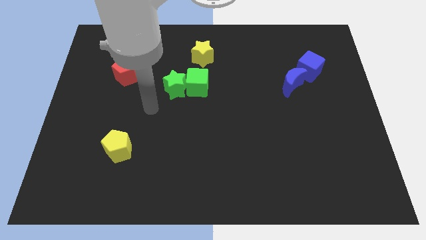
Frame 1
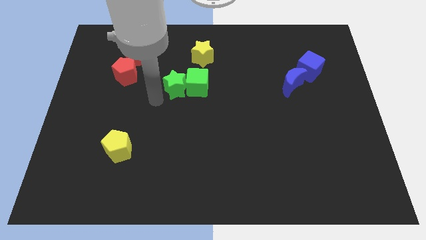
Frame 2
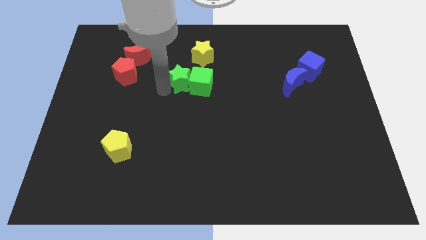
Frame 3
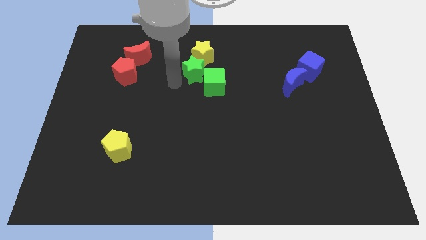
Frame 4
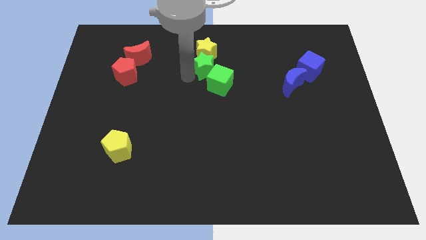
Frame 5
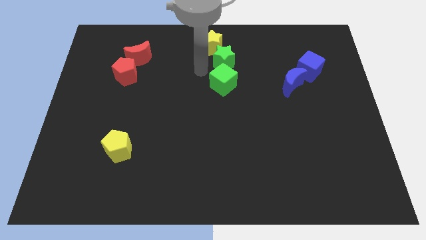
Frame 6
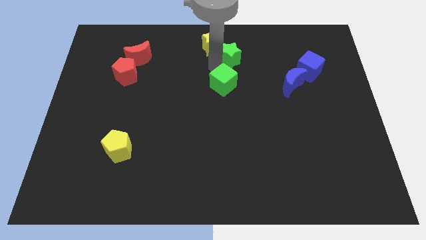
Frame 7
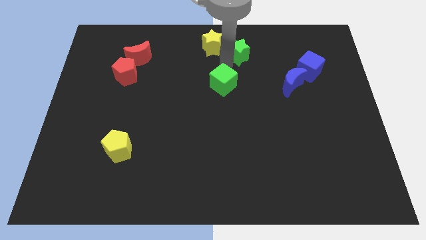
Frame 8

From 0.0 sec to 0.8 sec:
pull the green cube apart from the green star

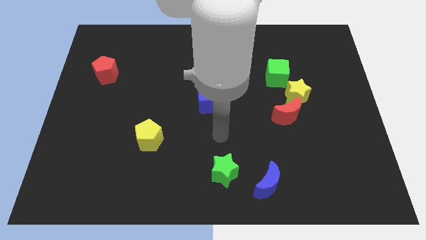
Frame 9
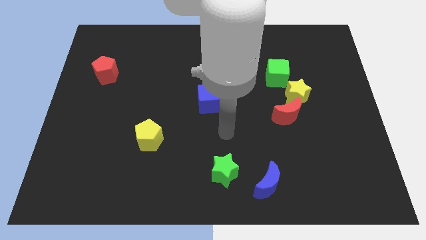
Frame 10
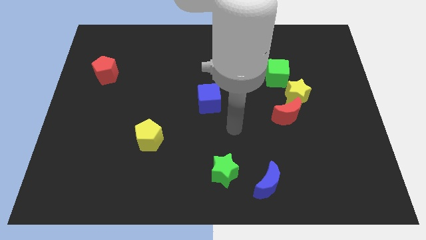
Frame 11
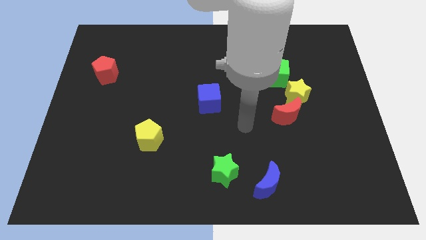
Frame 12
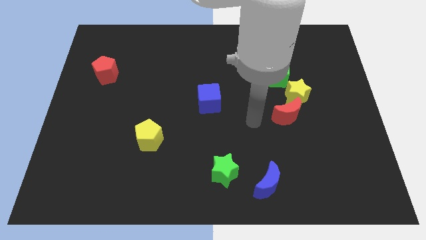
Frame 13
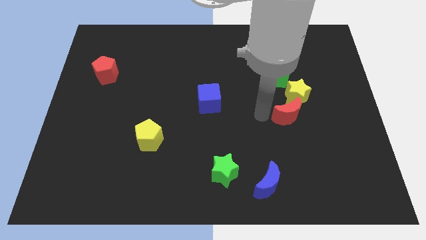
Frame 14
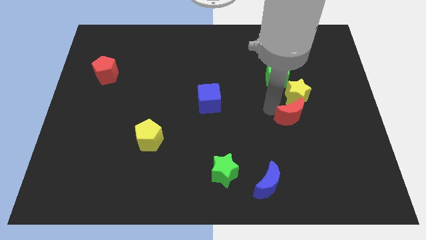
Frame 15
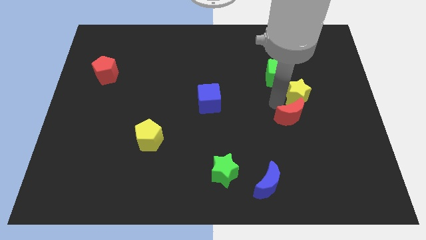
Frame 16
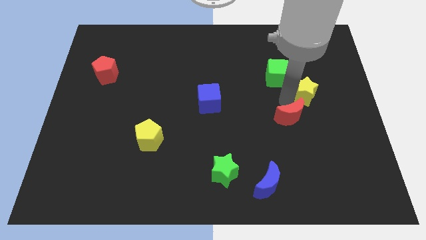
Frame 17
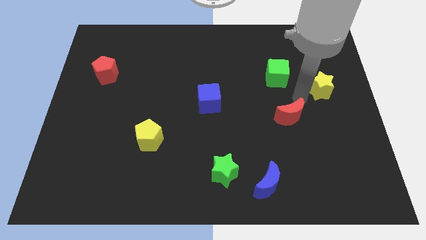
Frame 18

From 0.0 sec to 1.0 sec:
pull the red moon apart from the yellow star

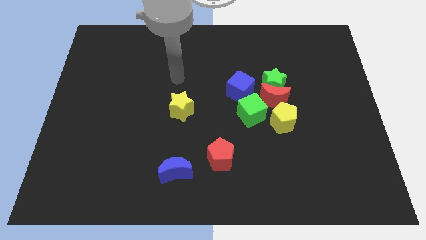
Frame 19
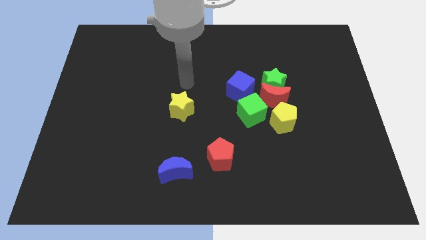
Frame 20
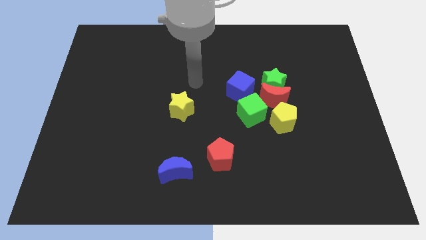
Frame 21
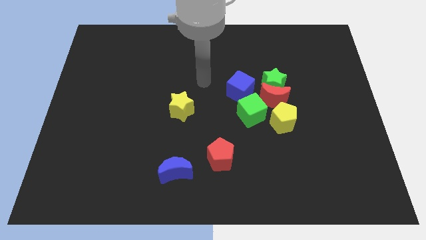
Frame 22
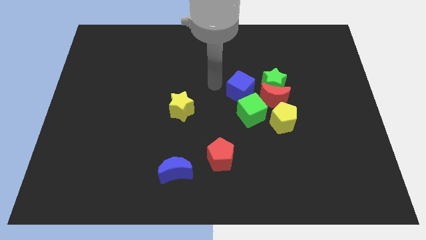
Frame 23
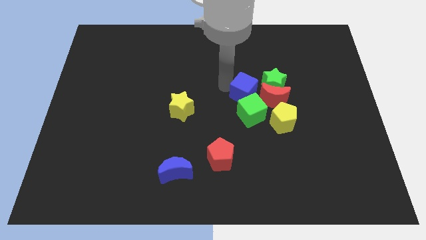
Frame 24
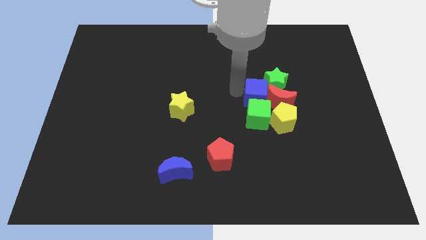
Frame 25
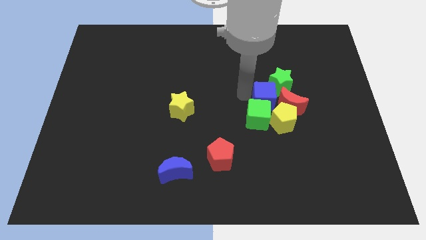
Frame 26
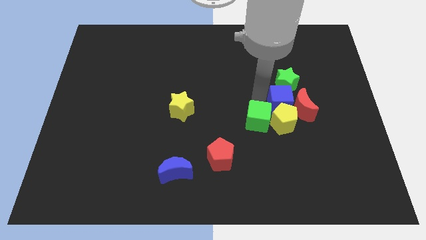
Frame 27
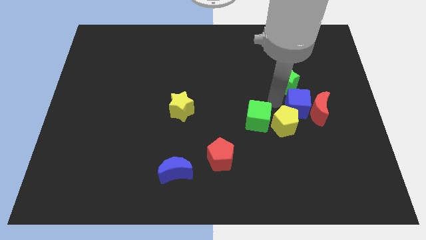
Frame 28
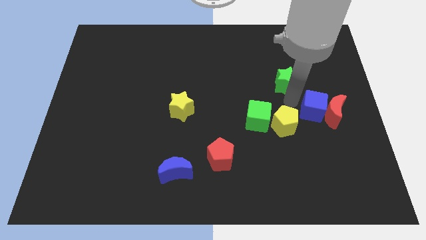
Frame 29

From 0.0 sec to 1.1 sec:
pull the green star apart from the red moon and blue cube

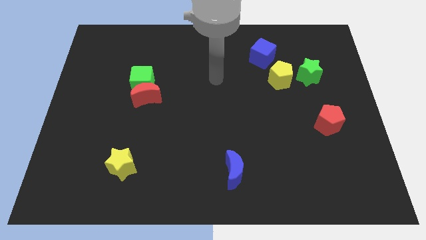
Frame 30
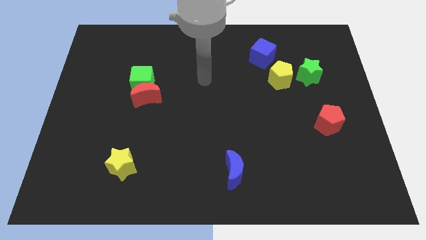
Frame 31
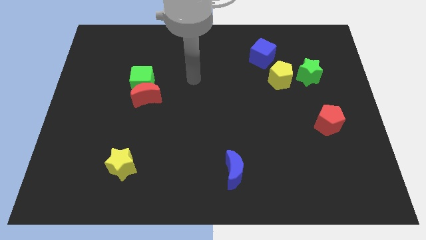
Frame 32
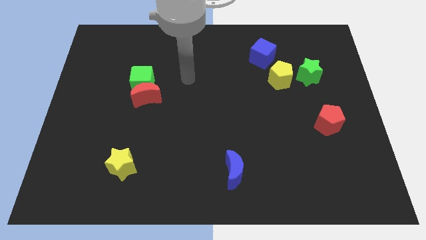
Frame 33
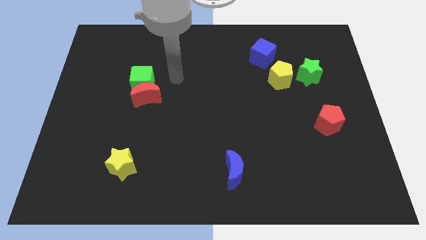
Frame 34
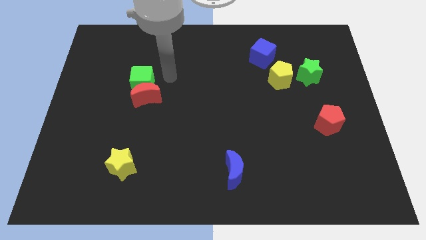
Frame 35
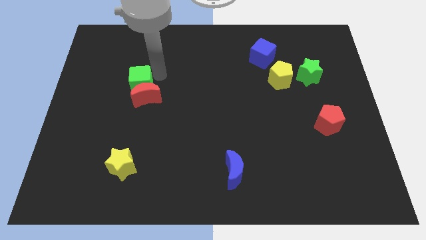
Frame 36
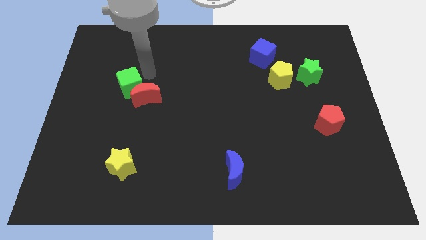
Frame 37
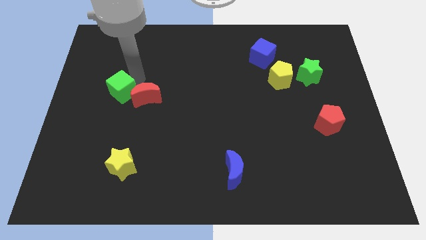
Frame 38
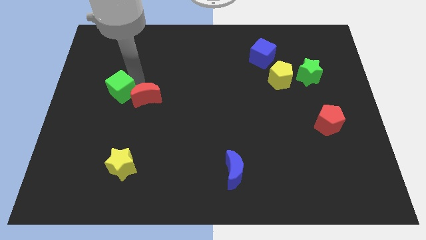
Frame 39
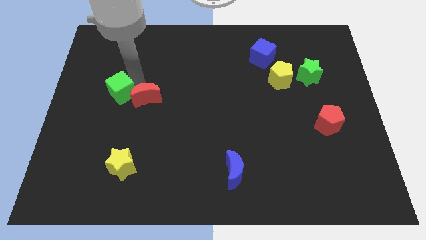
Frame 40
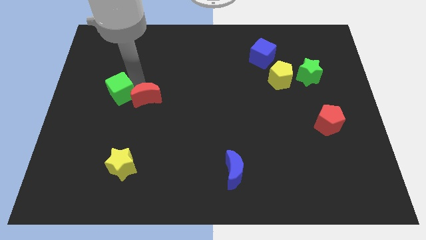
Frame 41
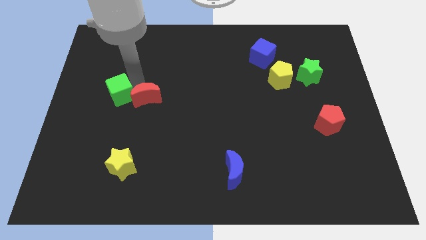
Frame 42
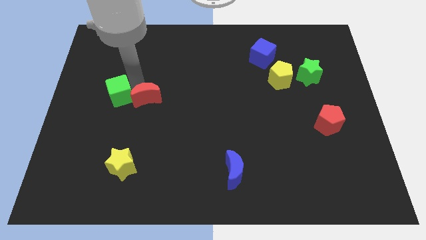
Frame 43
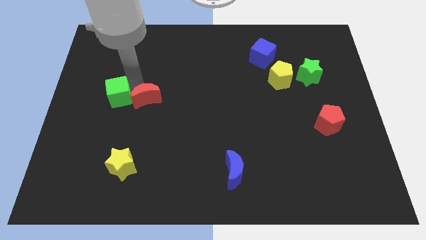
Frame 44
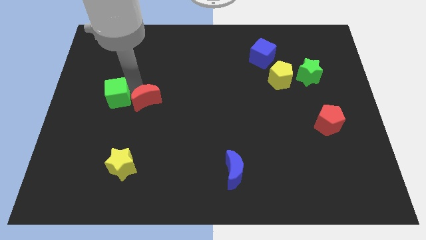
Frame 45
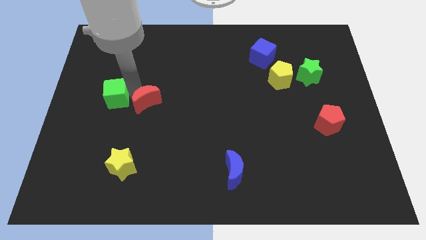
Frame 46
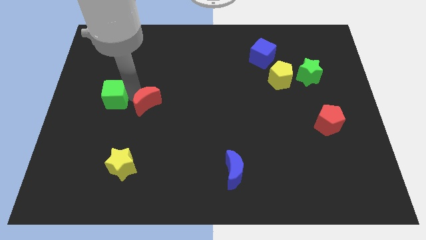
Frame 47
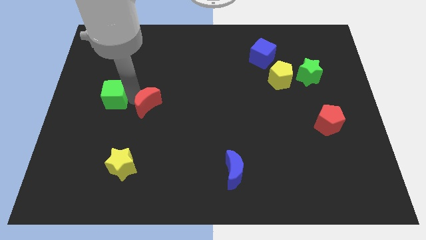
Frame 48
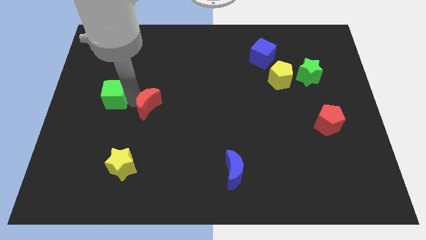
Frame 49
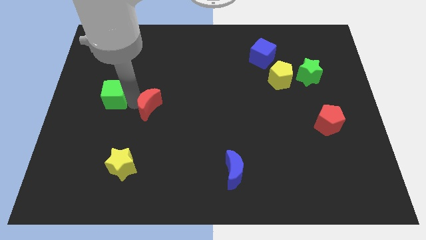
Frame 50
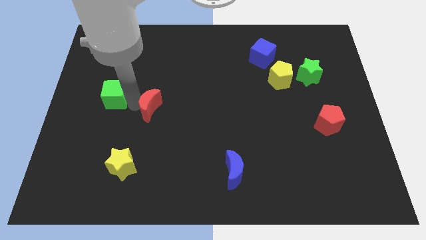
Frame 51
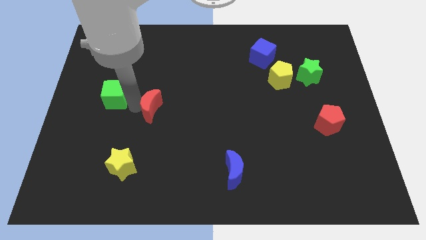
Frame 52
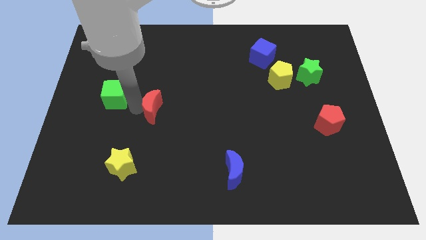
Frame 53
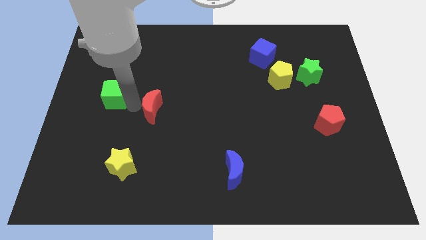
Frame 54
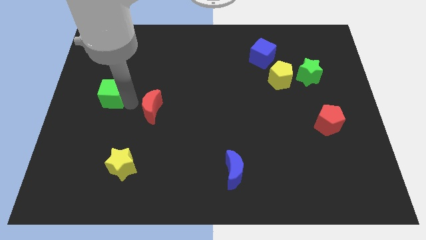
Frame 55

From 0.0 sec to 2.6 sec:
move the red moon away from the green cube

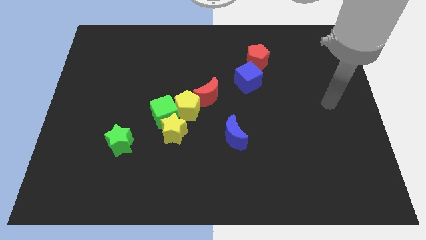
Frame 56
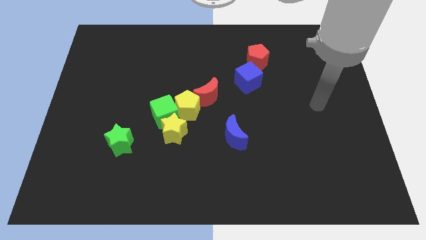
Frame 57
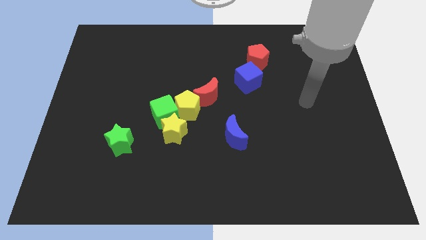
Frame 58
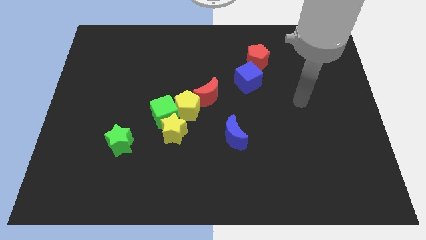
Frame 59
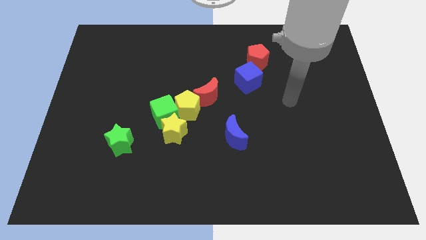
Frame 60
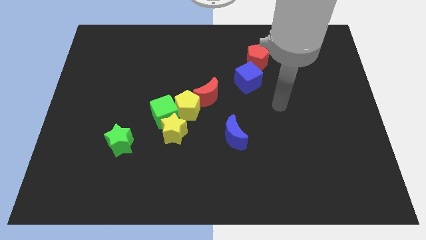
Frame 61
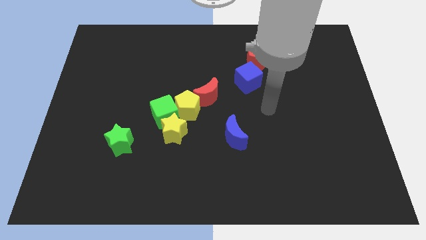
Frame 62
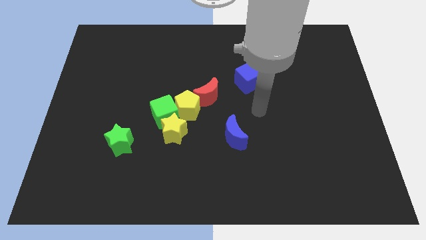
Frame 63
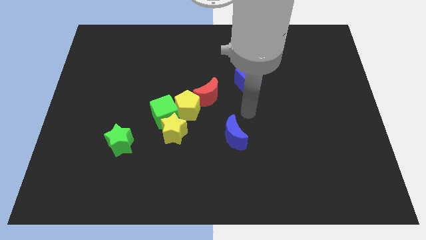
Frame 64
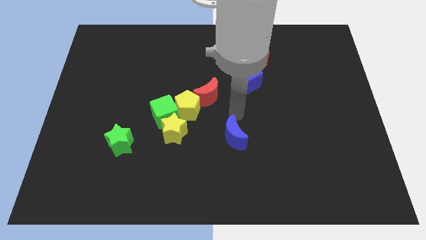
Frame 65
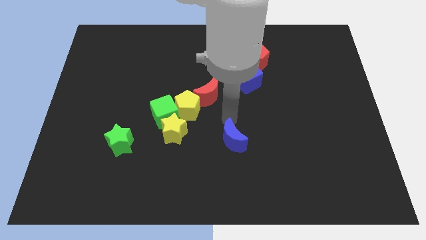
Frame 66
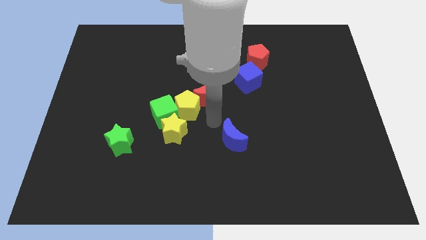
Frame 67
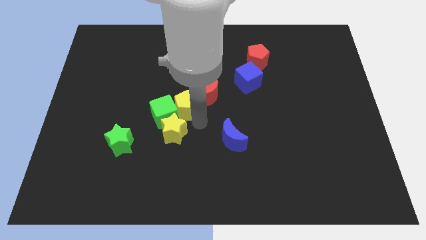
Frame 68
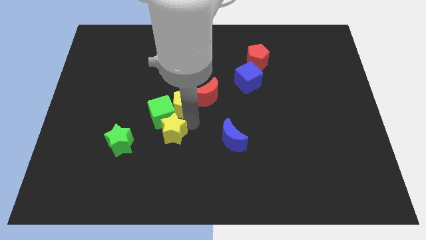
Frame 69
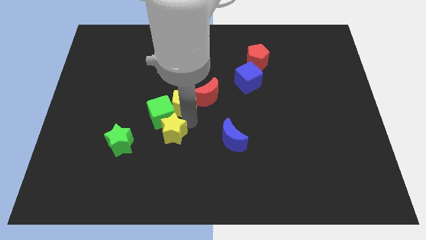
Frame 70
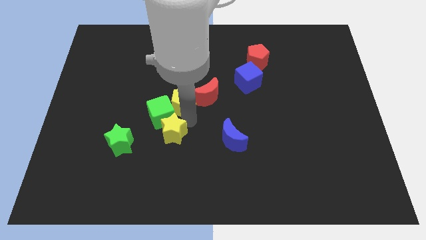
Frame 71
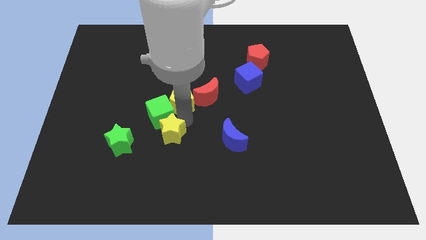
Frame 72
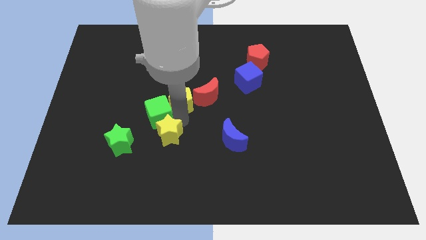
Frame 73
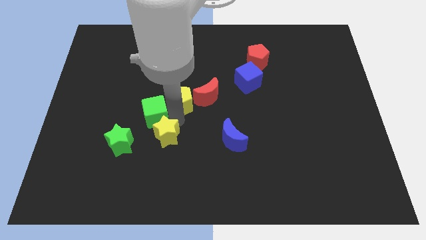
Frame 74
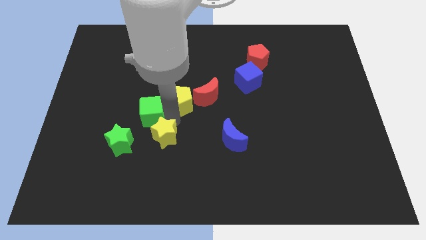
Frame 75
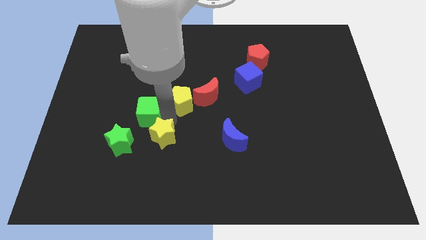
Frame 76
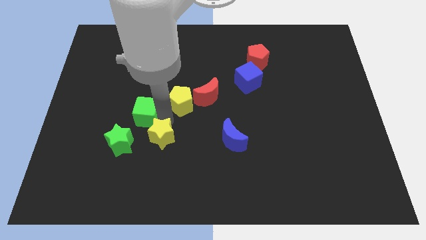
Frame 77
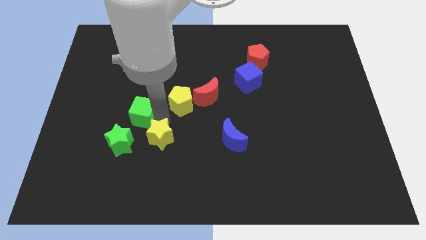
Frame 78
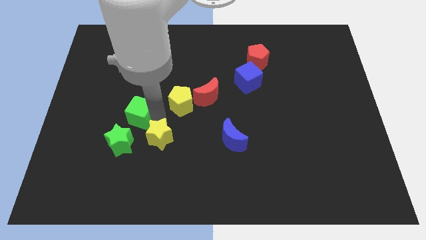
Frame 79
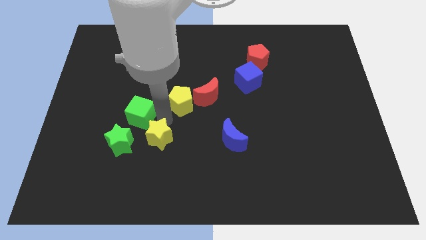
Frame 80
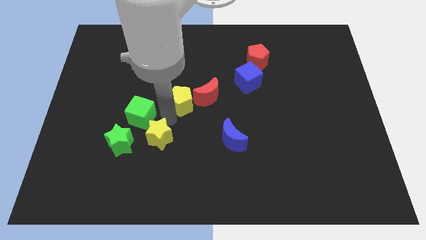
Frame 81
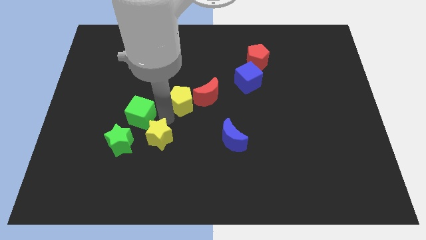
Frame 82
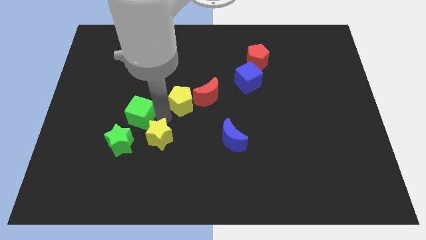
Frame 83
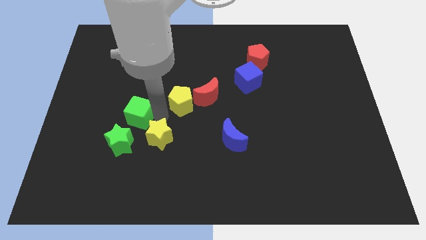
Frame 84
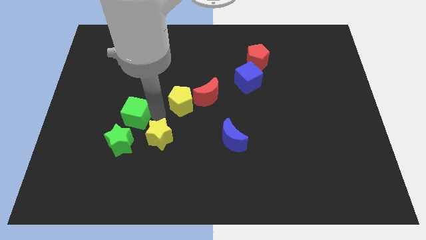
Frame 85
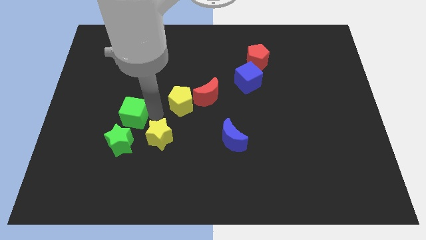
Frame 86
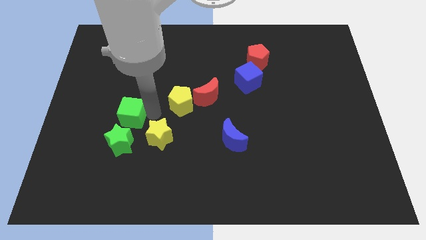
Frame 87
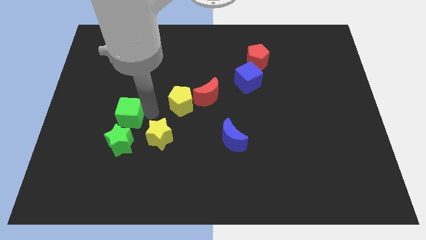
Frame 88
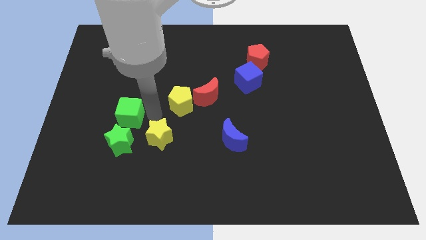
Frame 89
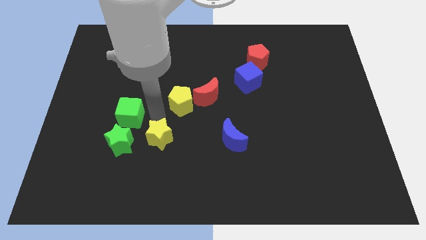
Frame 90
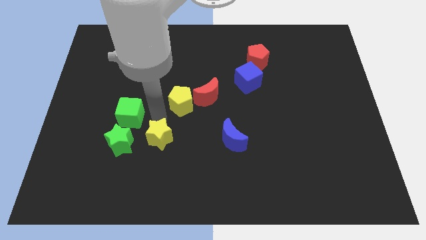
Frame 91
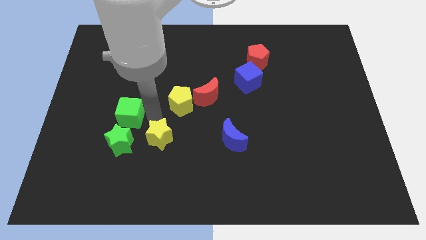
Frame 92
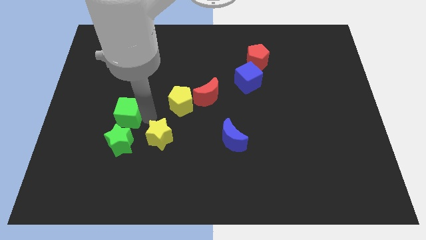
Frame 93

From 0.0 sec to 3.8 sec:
separate the green cube from the yellow pentagon and yellow star
